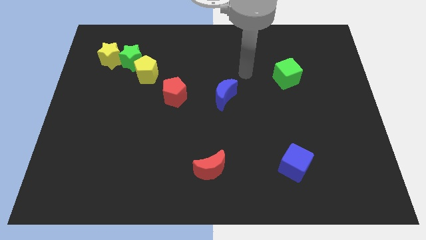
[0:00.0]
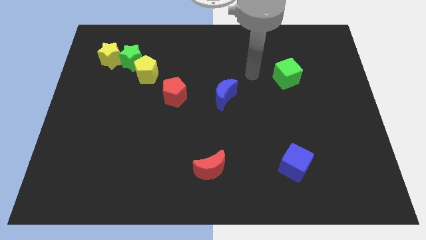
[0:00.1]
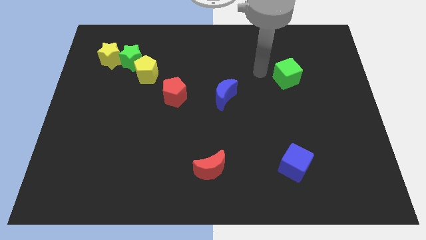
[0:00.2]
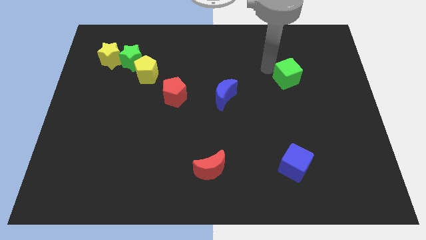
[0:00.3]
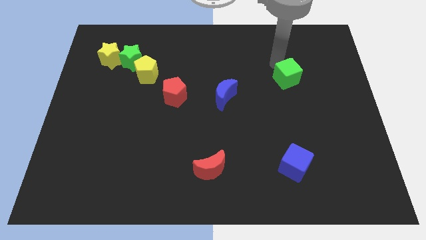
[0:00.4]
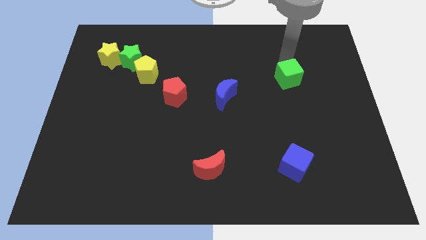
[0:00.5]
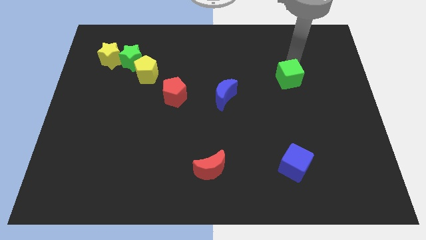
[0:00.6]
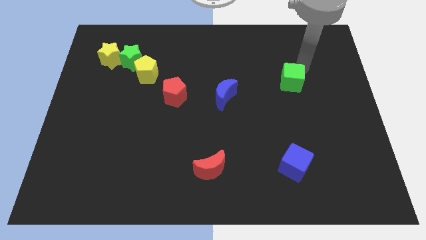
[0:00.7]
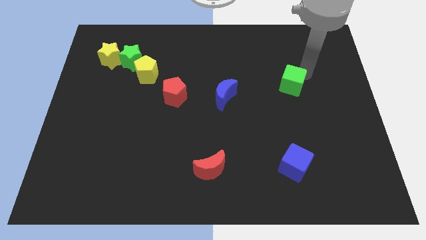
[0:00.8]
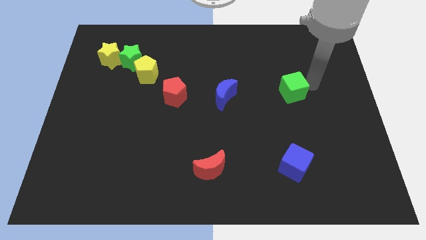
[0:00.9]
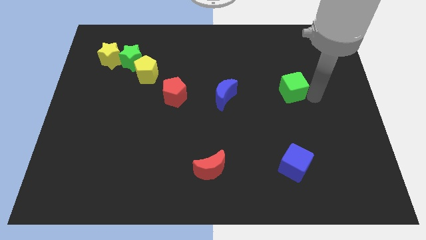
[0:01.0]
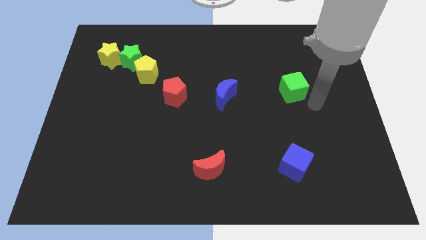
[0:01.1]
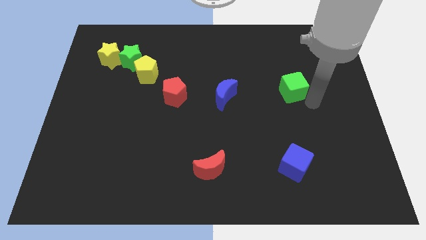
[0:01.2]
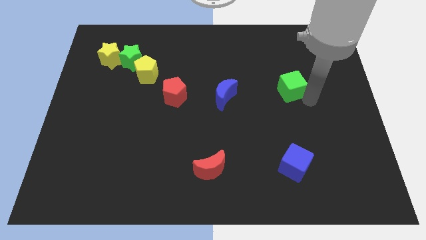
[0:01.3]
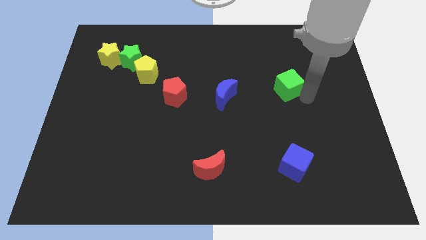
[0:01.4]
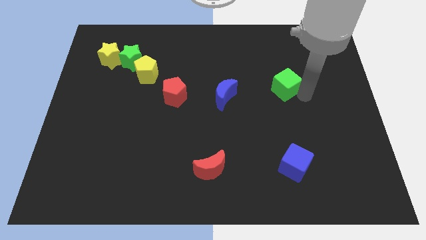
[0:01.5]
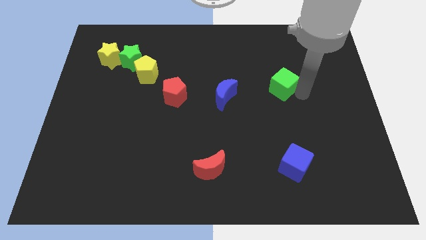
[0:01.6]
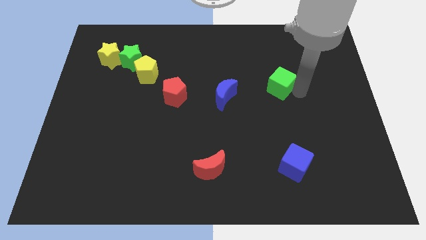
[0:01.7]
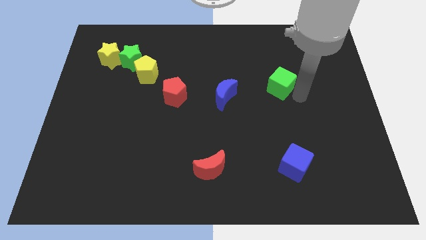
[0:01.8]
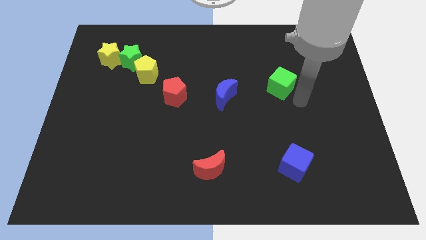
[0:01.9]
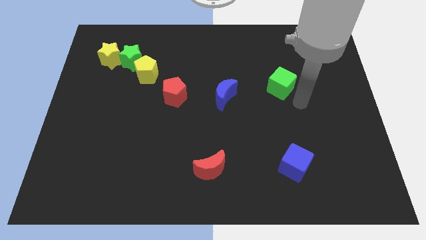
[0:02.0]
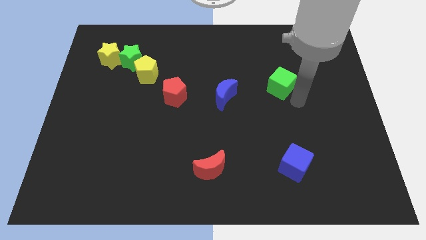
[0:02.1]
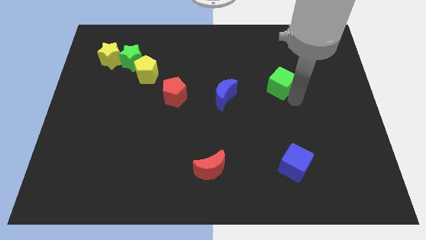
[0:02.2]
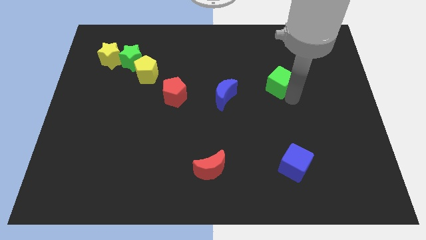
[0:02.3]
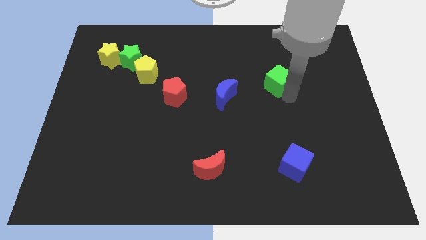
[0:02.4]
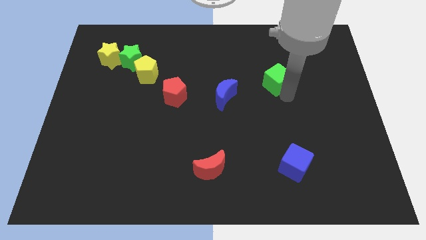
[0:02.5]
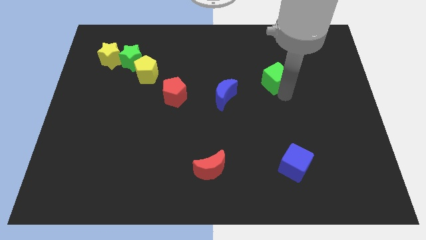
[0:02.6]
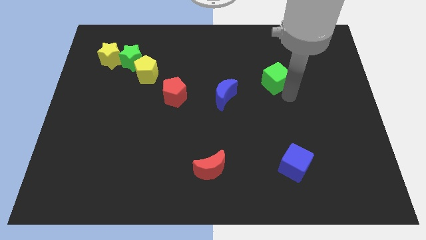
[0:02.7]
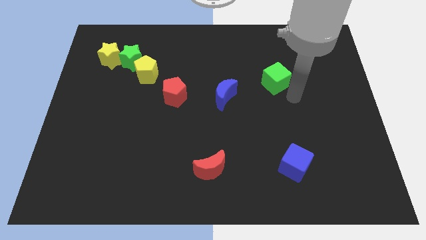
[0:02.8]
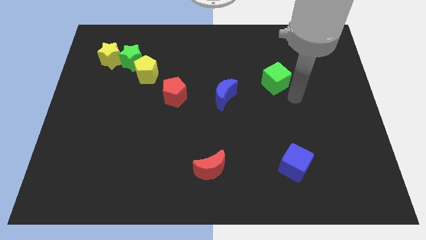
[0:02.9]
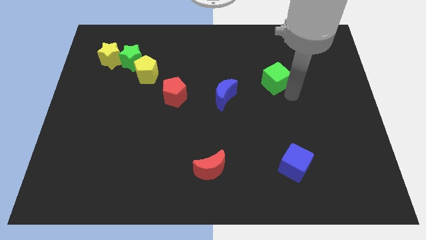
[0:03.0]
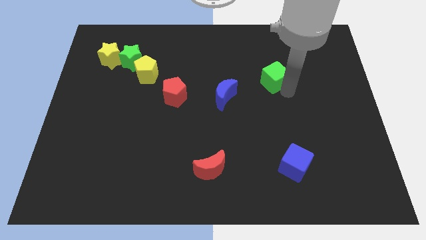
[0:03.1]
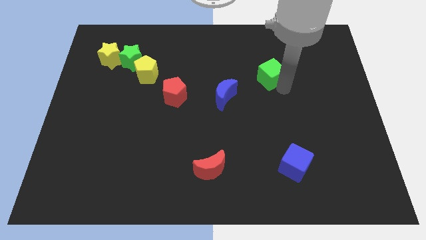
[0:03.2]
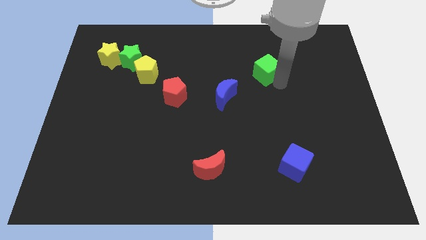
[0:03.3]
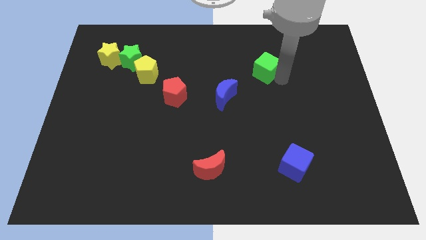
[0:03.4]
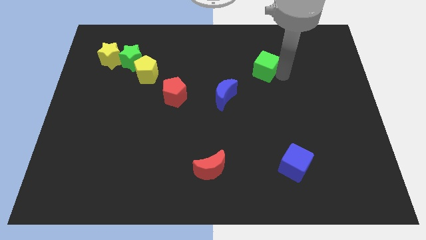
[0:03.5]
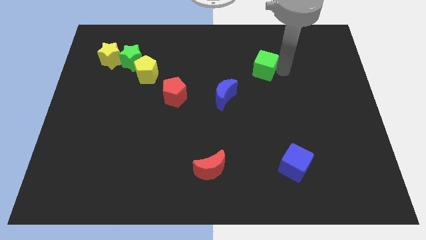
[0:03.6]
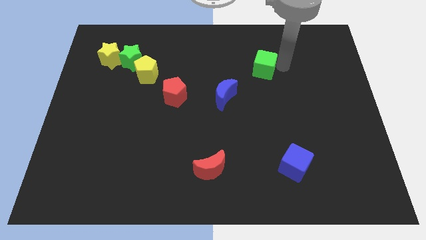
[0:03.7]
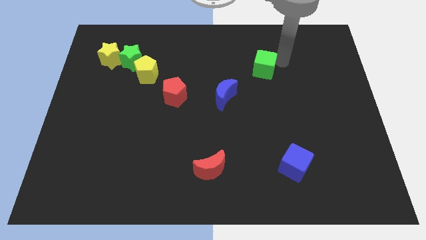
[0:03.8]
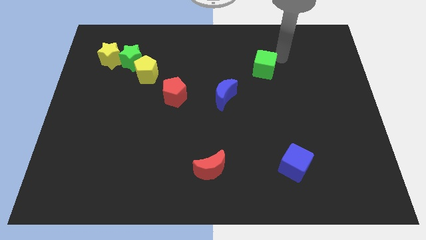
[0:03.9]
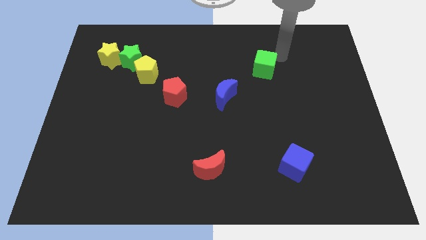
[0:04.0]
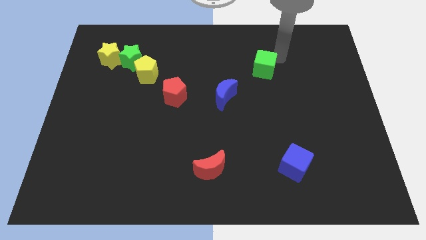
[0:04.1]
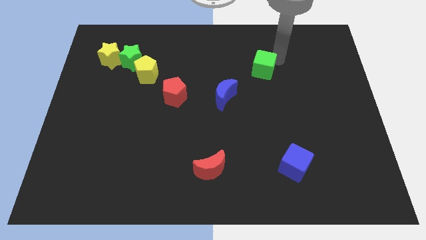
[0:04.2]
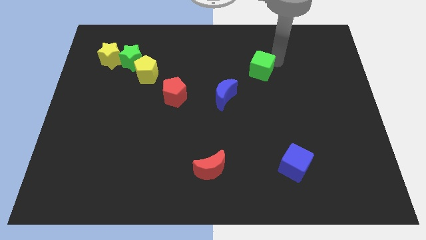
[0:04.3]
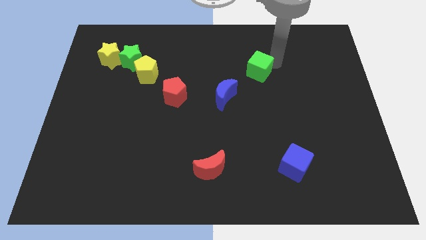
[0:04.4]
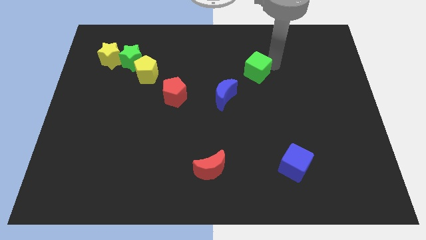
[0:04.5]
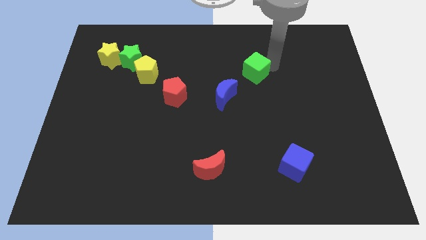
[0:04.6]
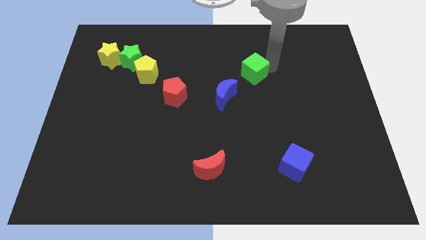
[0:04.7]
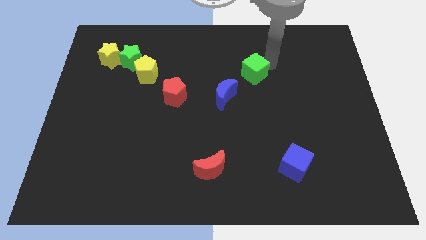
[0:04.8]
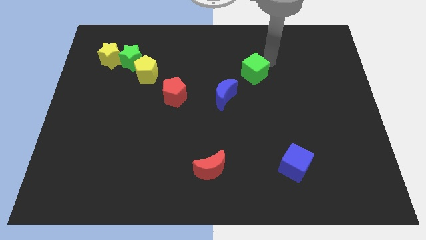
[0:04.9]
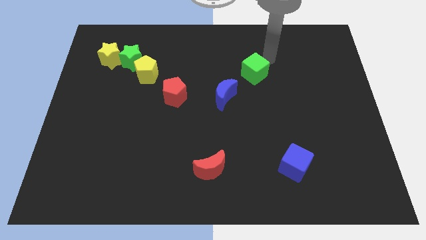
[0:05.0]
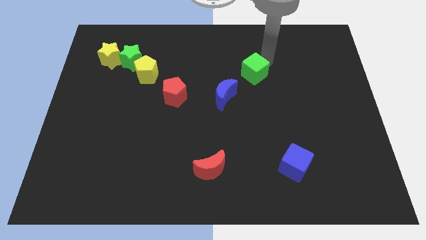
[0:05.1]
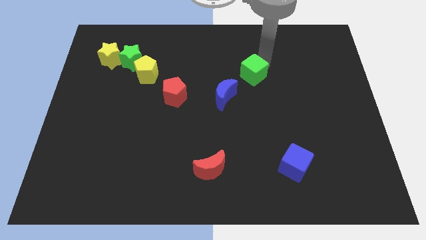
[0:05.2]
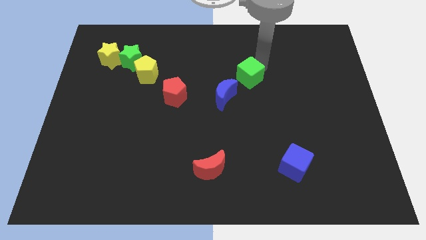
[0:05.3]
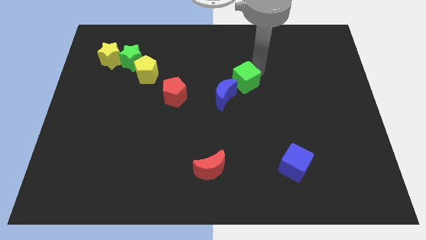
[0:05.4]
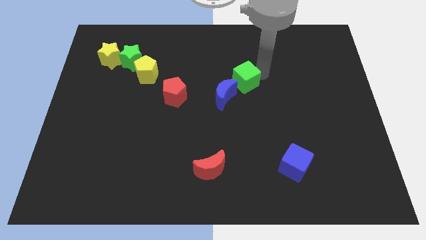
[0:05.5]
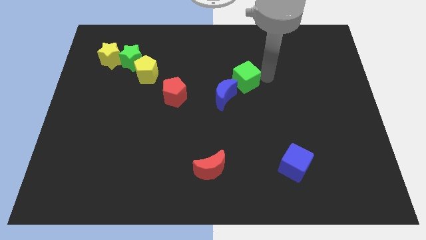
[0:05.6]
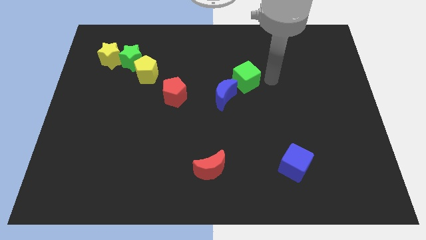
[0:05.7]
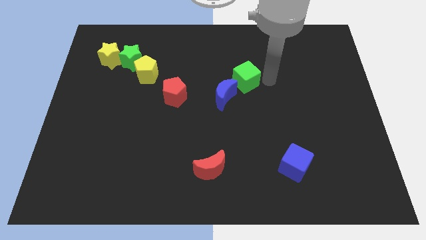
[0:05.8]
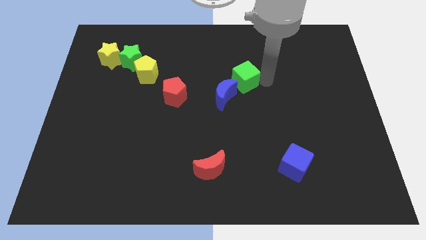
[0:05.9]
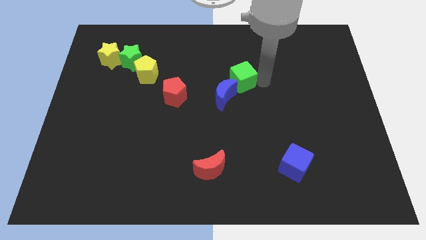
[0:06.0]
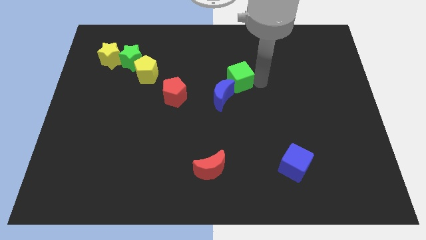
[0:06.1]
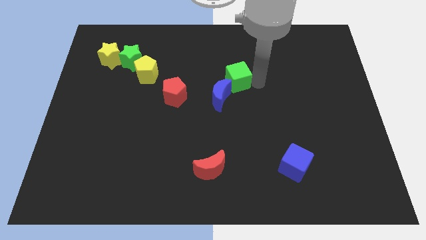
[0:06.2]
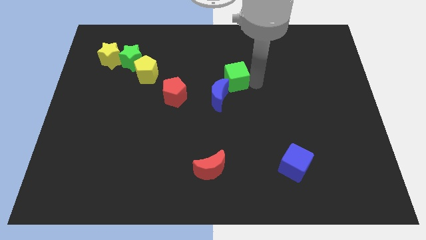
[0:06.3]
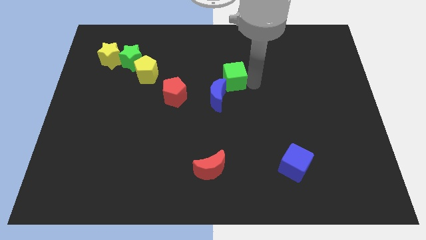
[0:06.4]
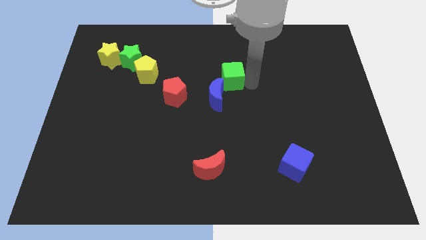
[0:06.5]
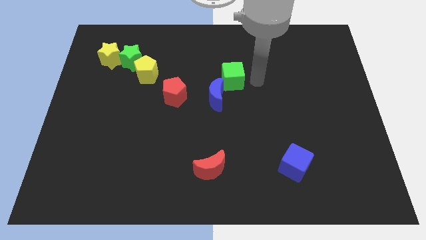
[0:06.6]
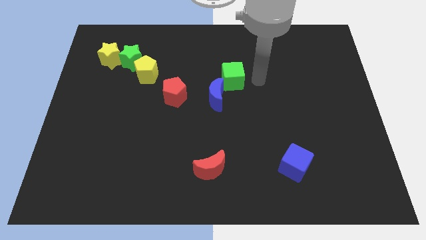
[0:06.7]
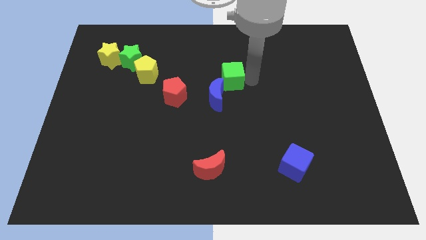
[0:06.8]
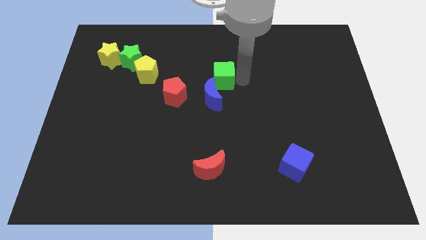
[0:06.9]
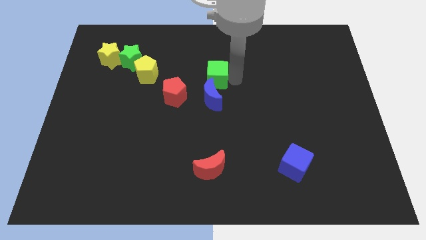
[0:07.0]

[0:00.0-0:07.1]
push the green cube to the top right of the red pentagon
